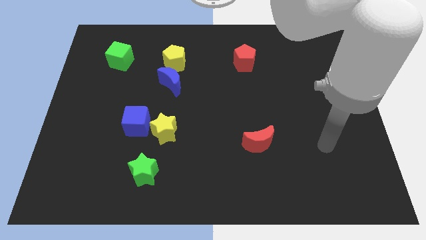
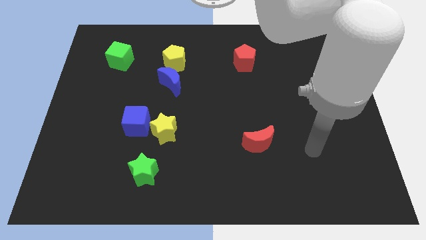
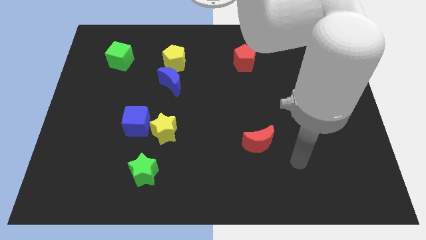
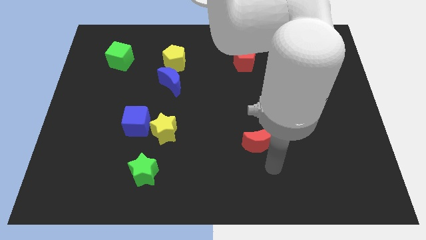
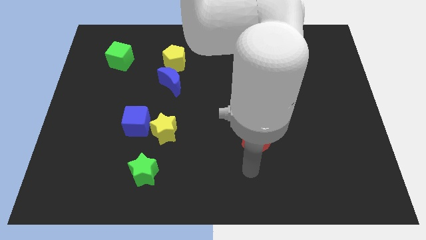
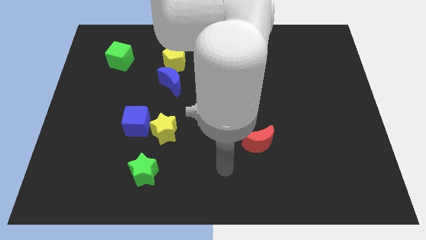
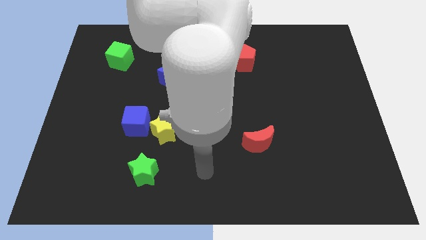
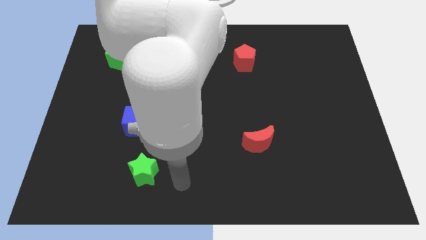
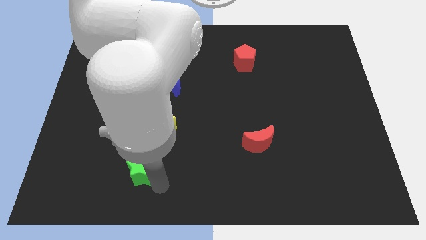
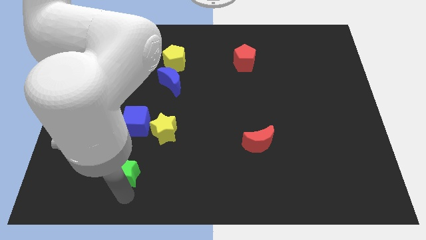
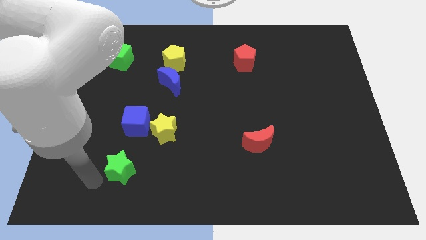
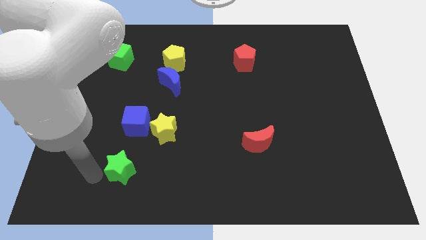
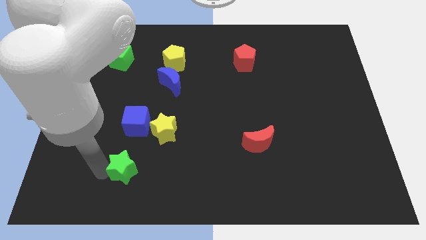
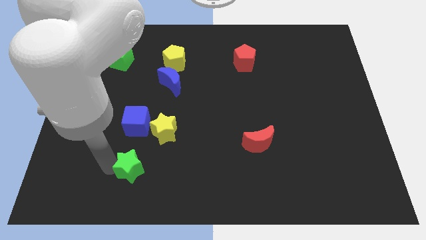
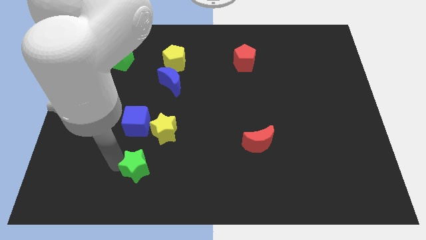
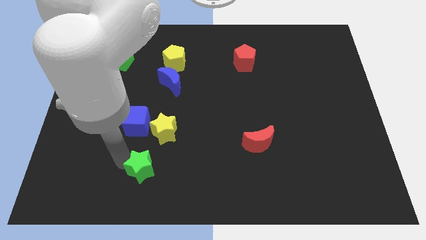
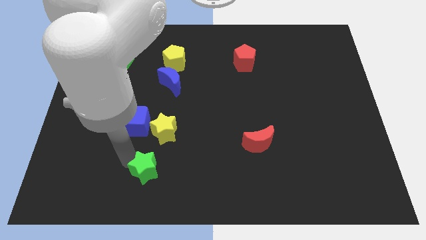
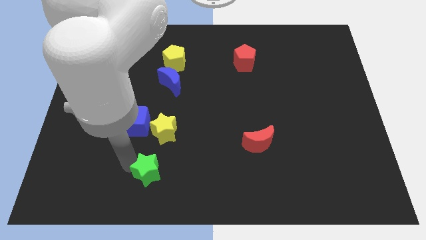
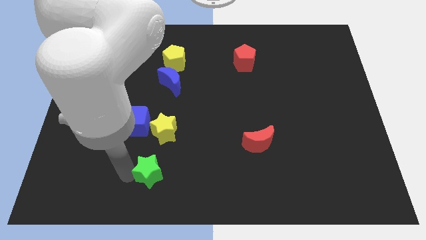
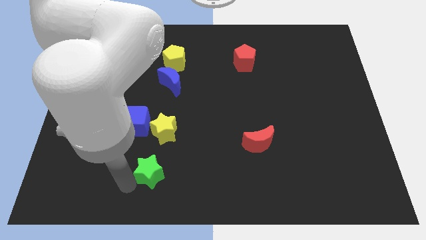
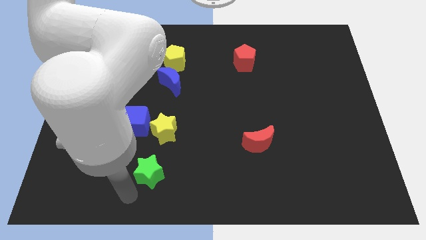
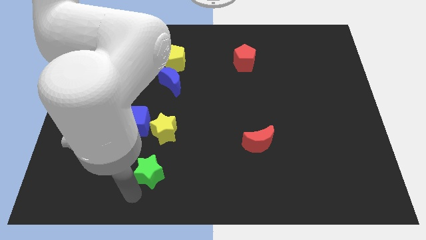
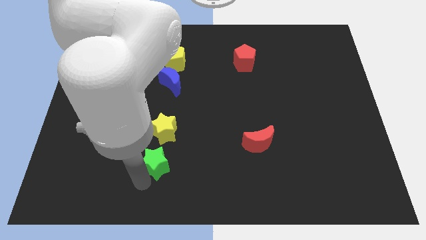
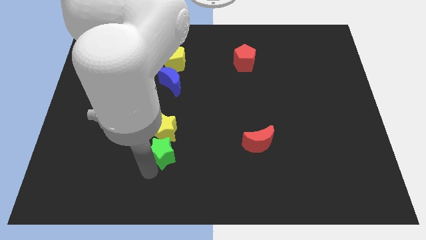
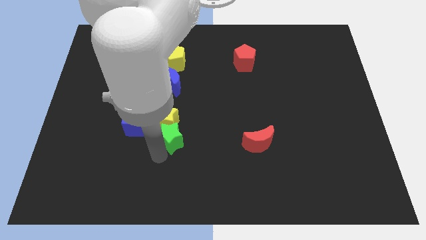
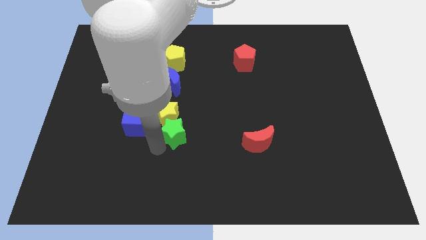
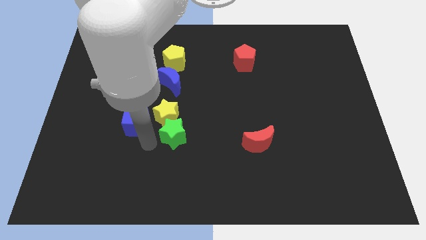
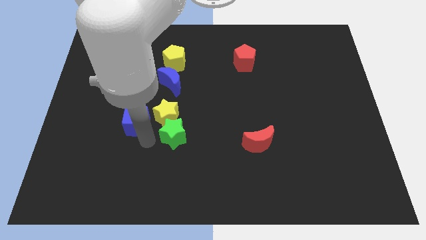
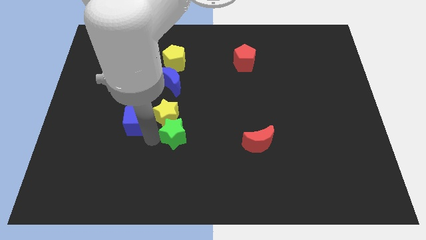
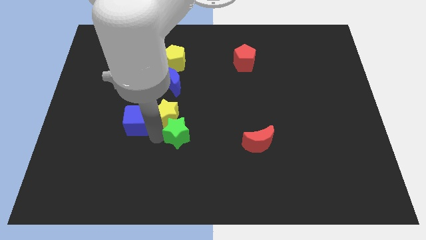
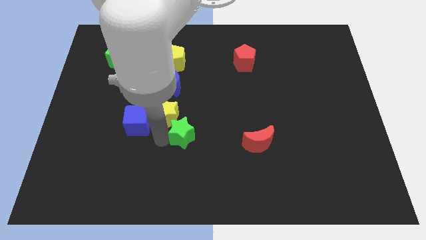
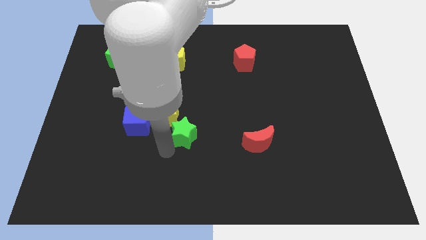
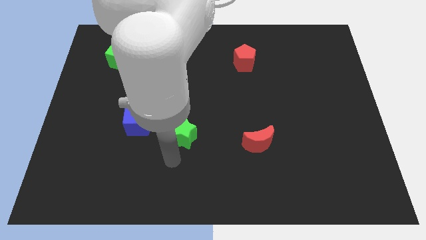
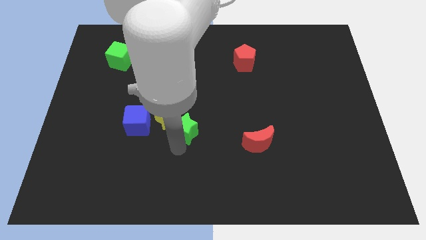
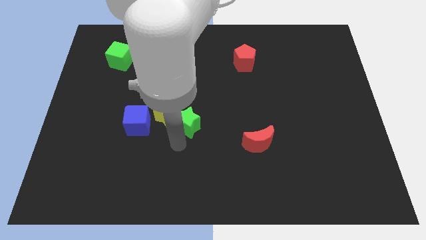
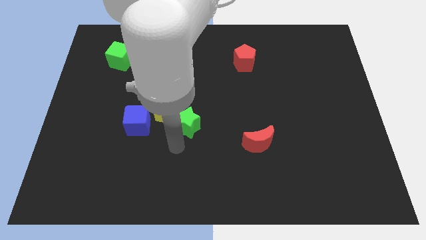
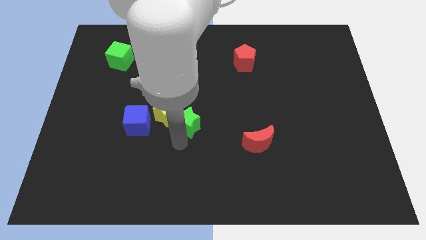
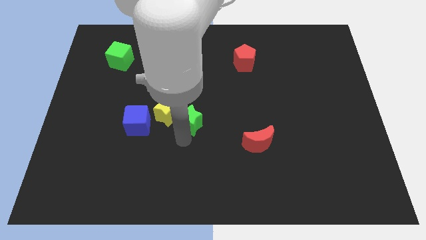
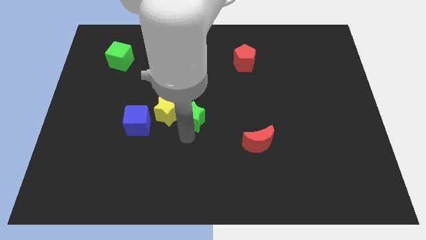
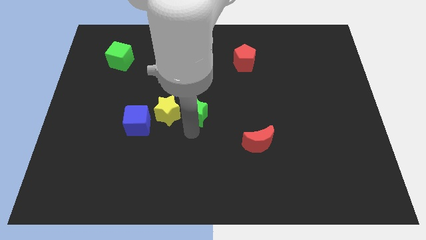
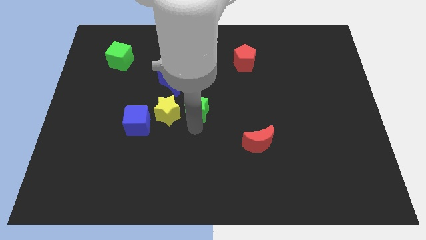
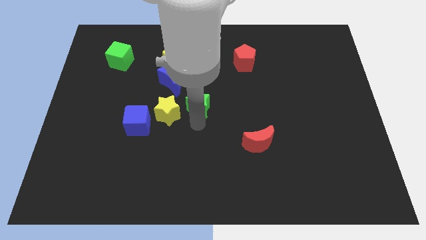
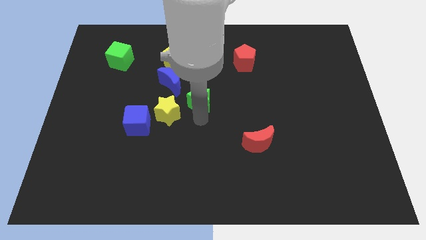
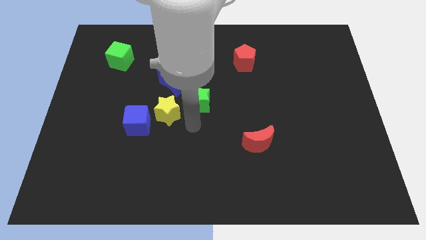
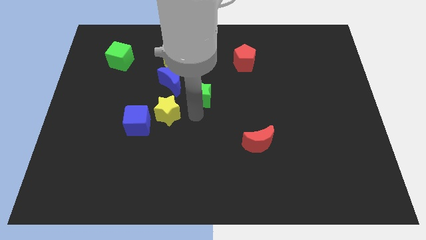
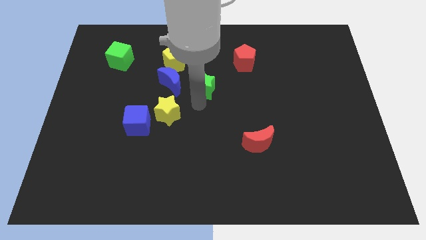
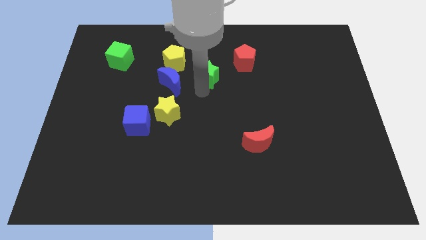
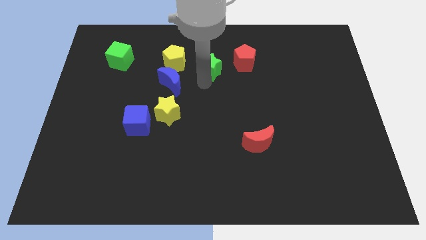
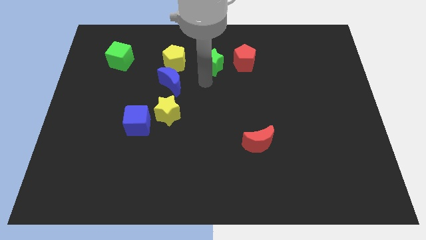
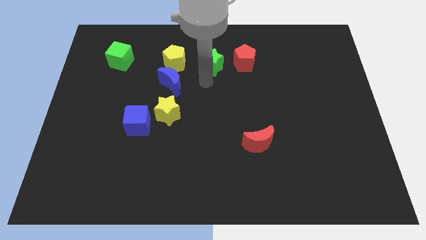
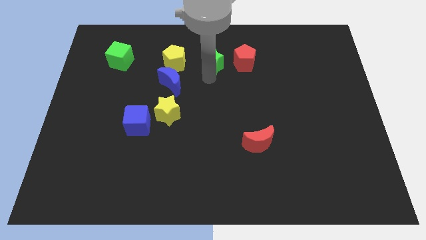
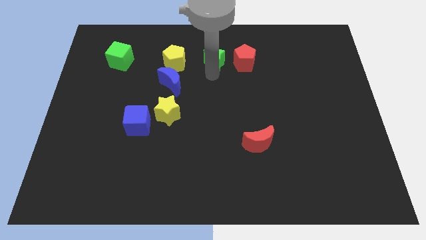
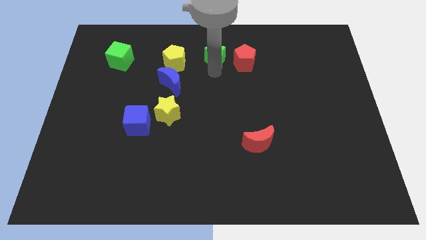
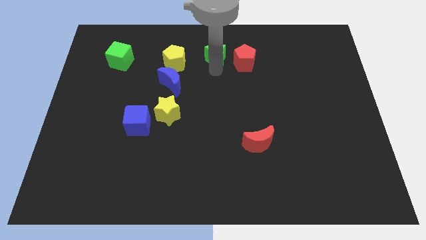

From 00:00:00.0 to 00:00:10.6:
move the green star to the top

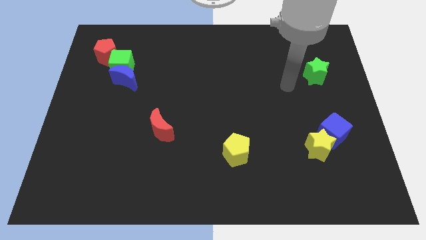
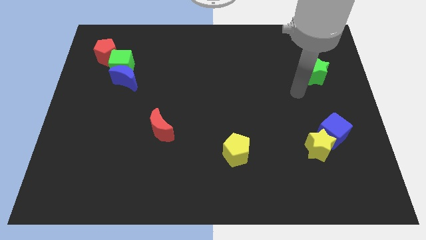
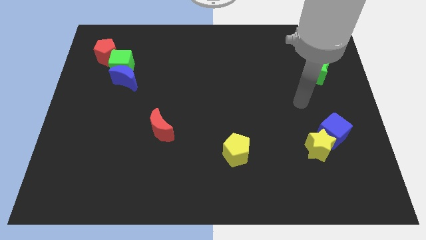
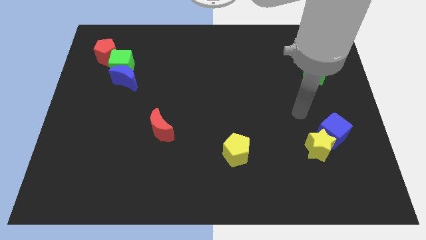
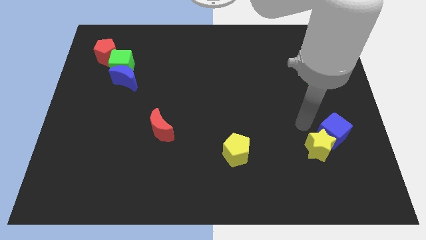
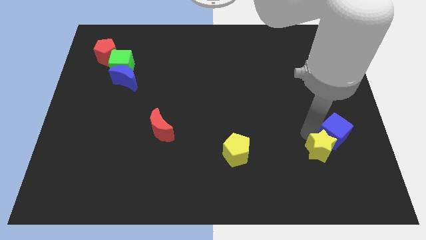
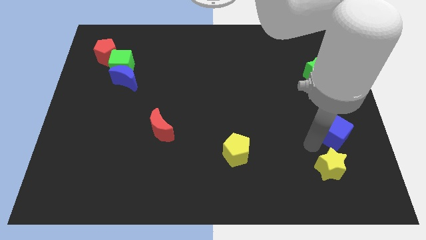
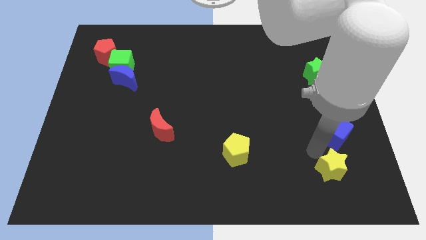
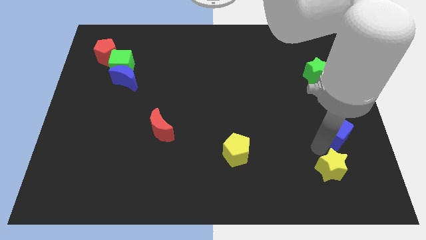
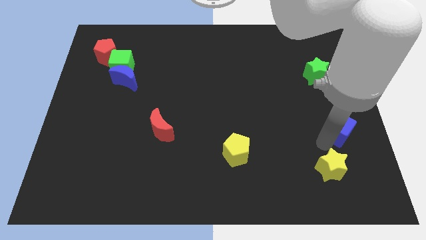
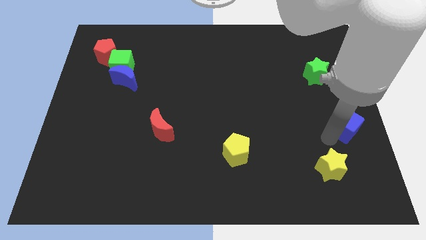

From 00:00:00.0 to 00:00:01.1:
put the blue cube to the center right
